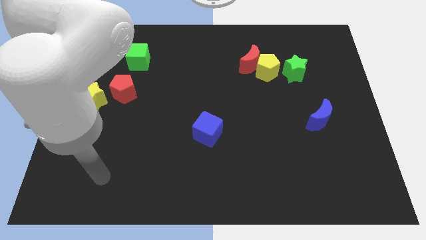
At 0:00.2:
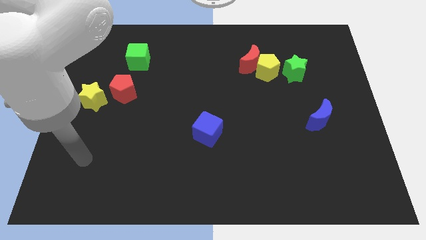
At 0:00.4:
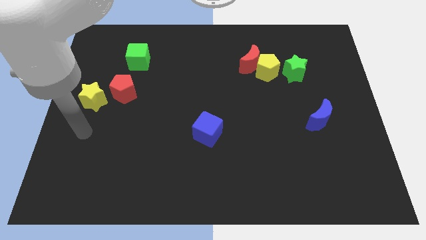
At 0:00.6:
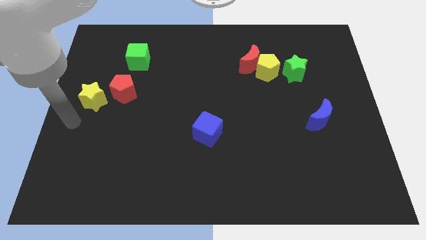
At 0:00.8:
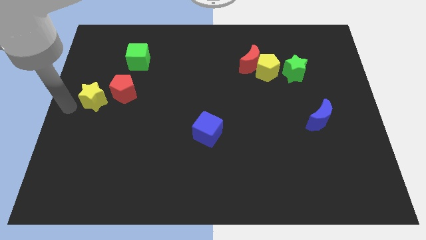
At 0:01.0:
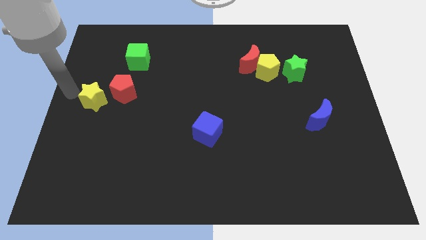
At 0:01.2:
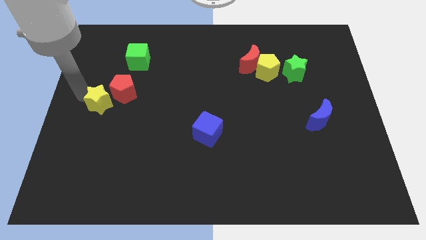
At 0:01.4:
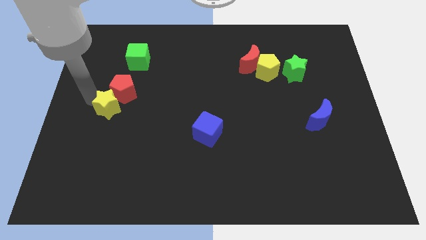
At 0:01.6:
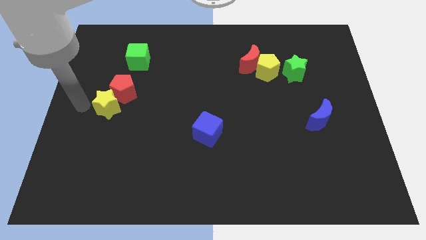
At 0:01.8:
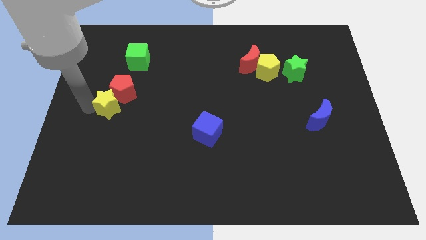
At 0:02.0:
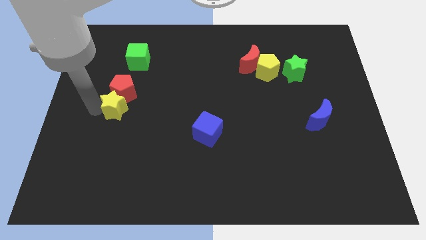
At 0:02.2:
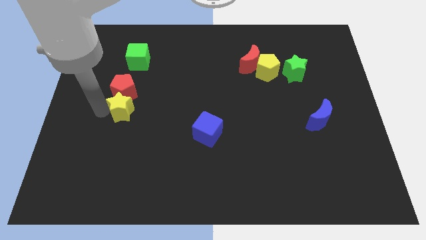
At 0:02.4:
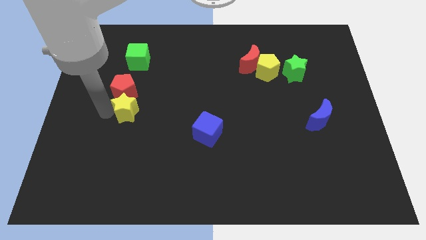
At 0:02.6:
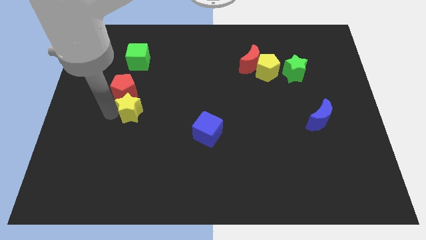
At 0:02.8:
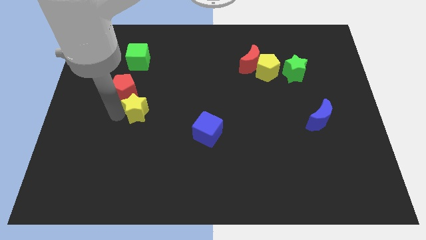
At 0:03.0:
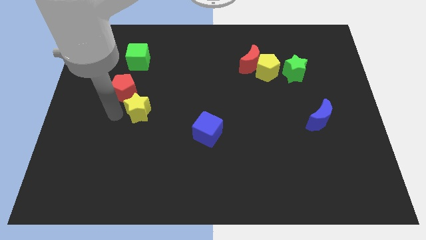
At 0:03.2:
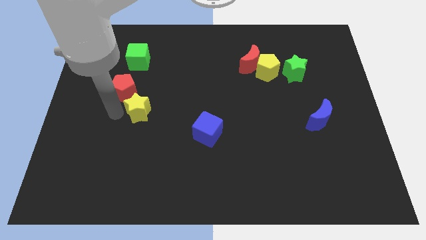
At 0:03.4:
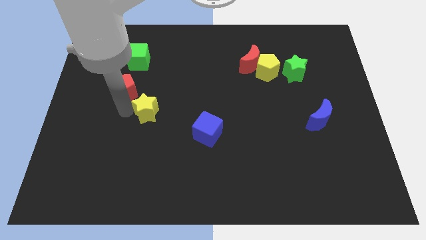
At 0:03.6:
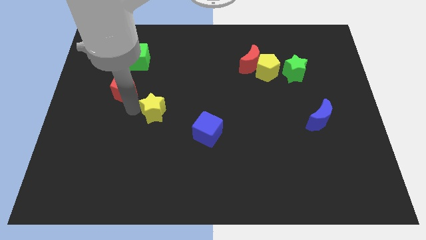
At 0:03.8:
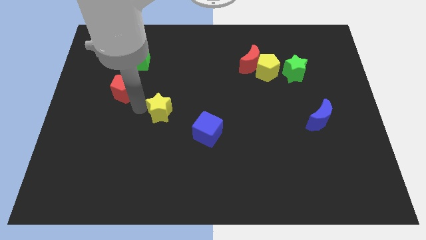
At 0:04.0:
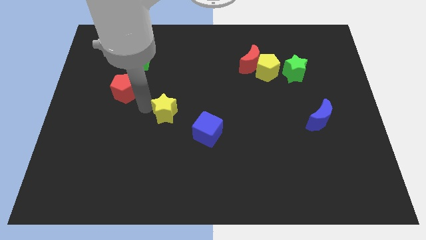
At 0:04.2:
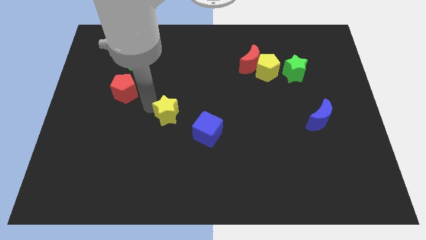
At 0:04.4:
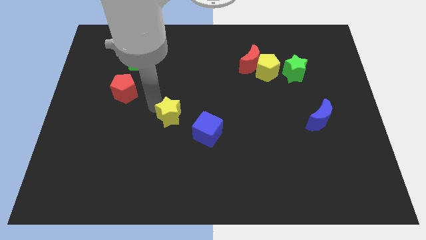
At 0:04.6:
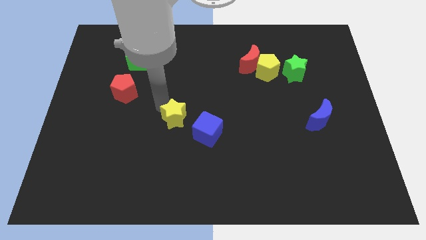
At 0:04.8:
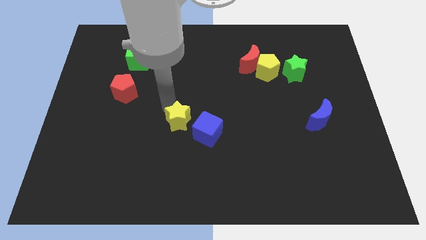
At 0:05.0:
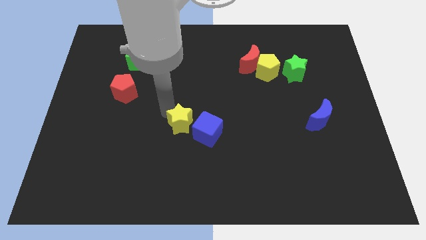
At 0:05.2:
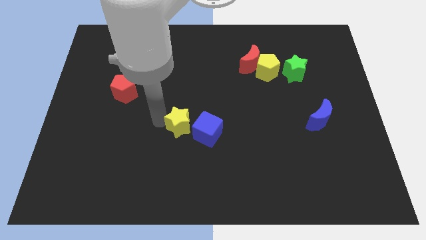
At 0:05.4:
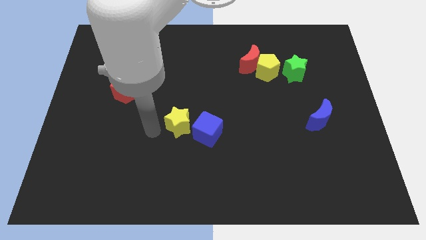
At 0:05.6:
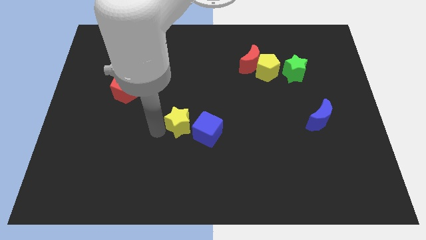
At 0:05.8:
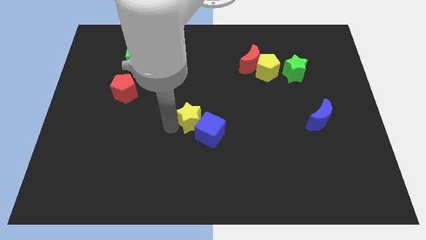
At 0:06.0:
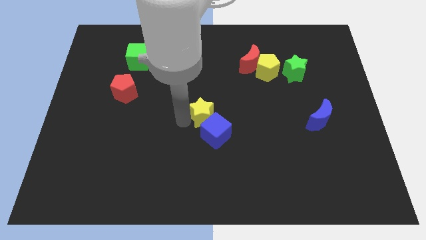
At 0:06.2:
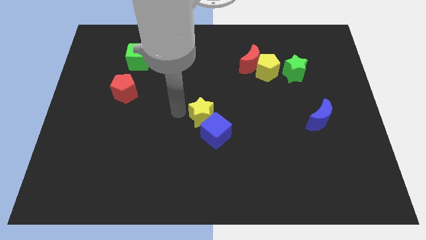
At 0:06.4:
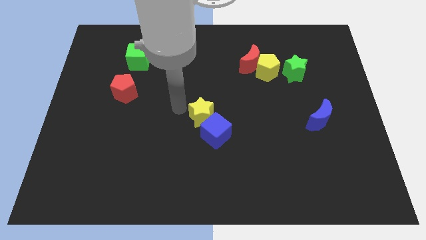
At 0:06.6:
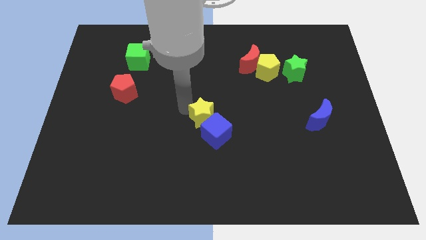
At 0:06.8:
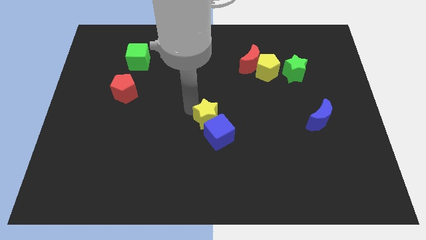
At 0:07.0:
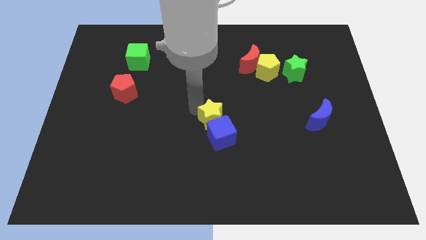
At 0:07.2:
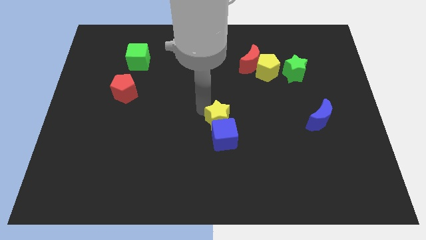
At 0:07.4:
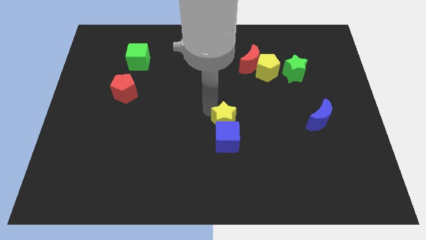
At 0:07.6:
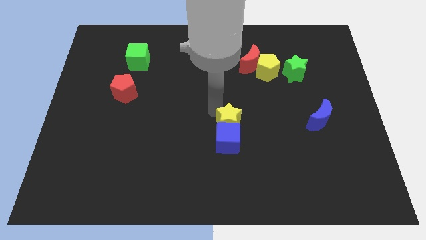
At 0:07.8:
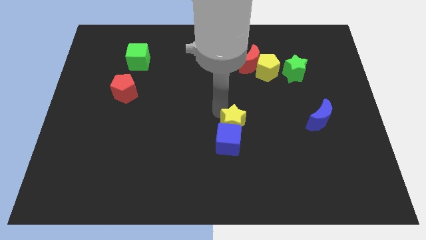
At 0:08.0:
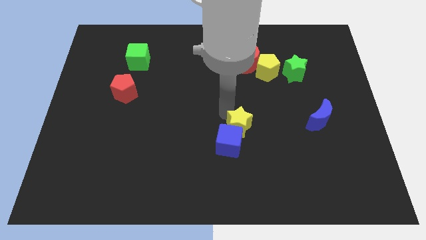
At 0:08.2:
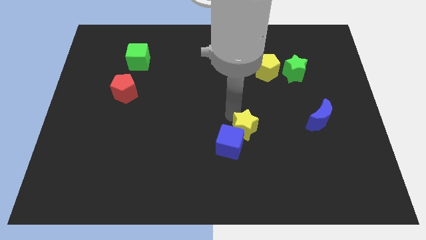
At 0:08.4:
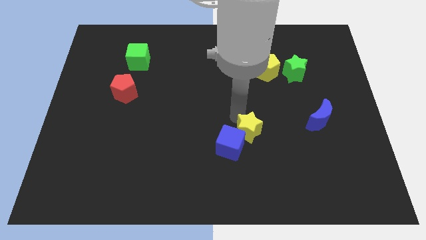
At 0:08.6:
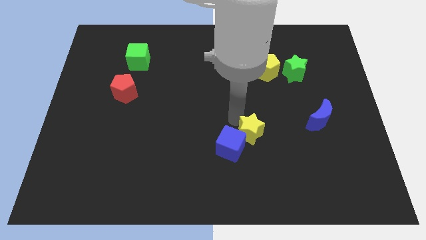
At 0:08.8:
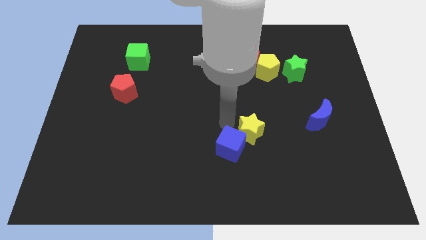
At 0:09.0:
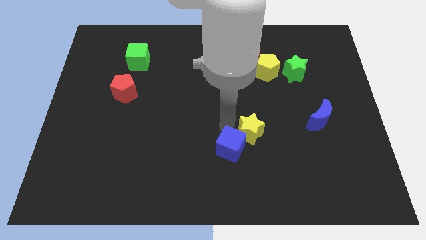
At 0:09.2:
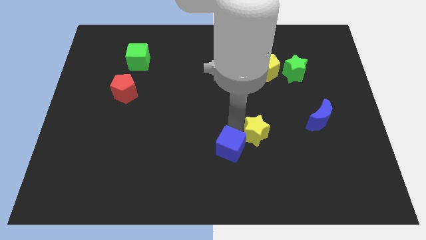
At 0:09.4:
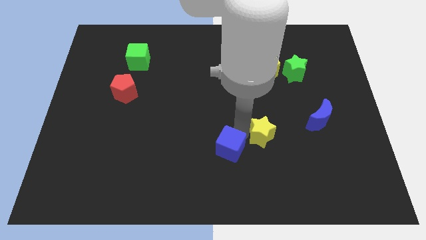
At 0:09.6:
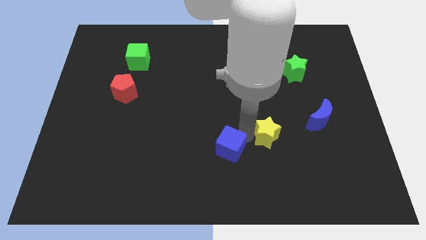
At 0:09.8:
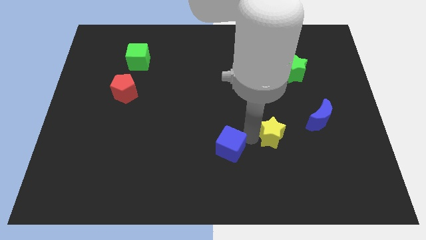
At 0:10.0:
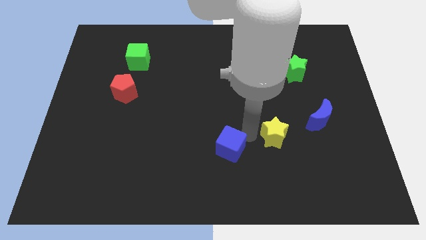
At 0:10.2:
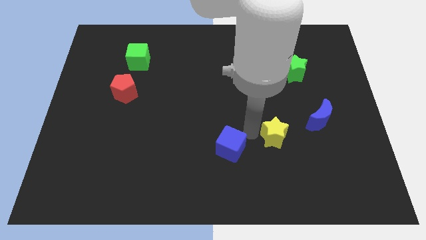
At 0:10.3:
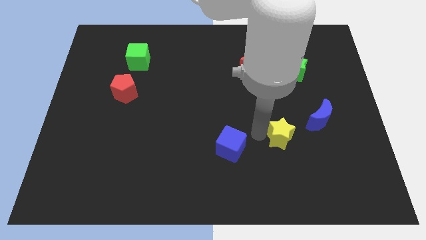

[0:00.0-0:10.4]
move the yellow star to the bottom left side of the blue moon

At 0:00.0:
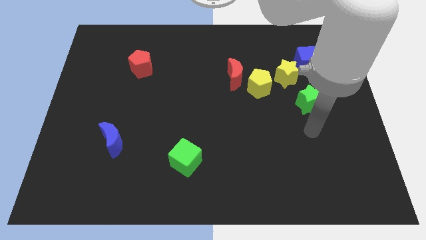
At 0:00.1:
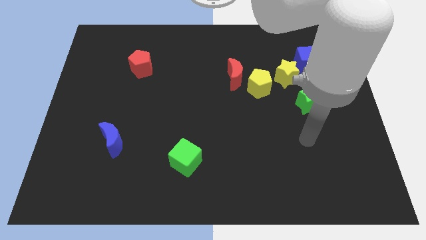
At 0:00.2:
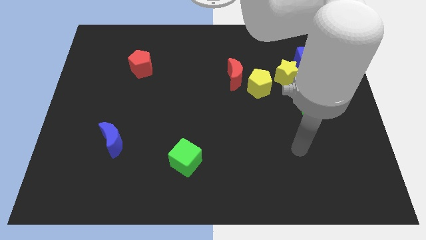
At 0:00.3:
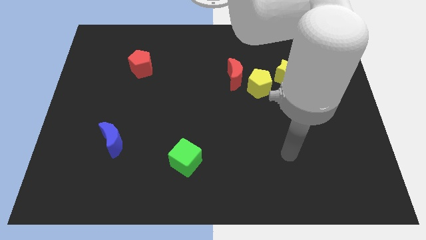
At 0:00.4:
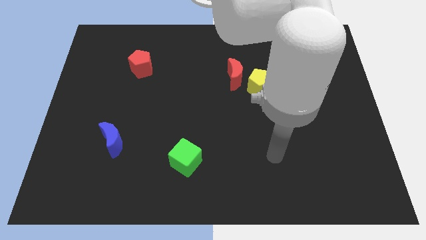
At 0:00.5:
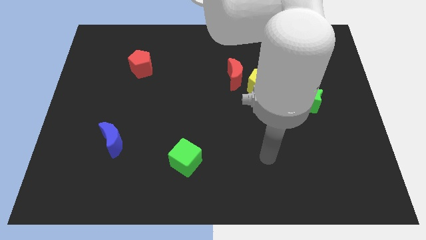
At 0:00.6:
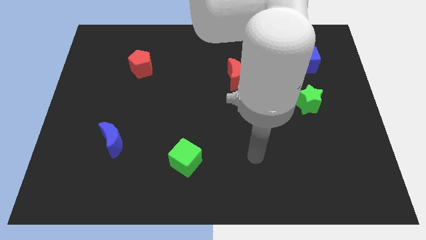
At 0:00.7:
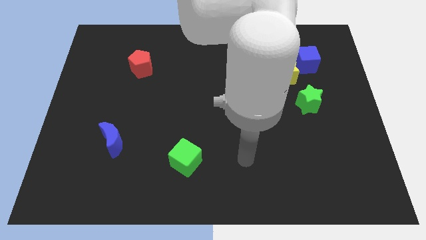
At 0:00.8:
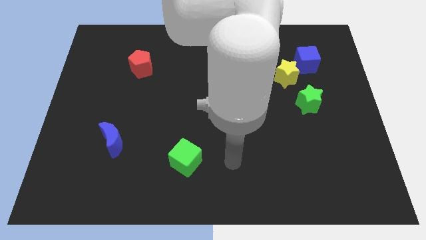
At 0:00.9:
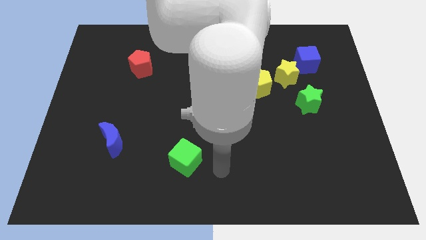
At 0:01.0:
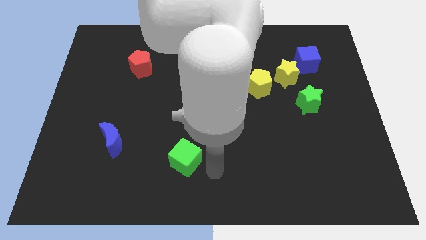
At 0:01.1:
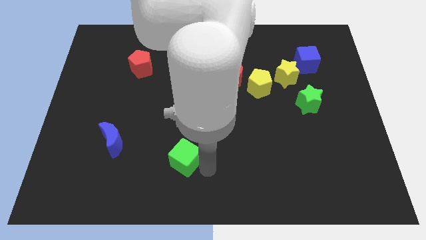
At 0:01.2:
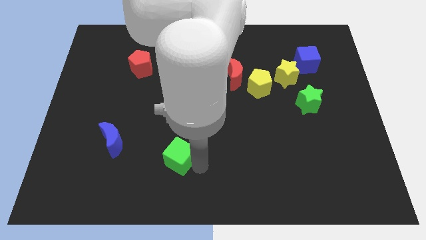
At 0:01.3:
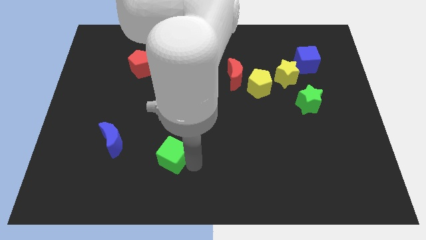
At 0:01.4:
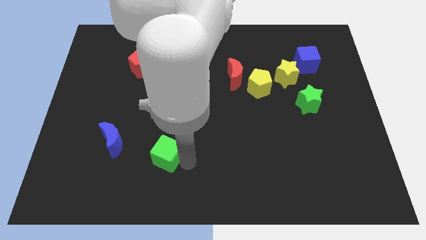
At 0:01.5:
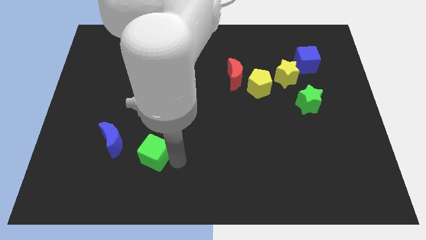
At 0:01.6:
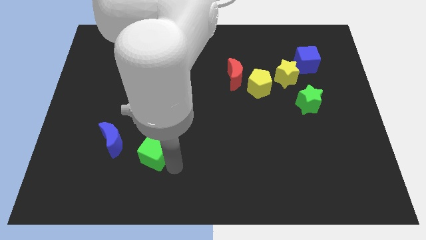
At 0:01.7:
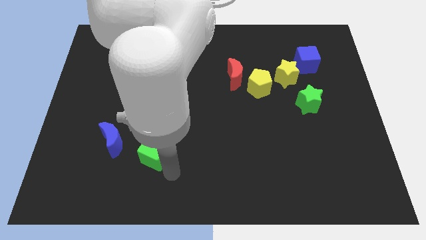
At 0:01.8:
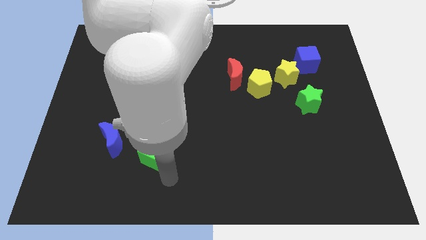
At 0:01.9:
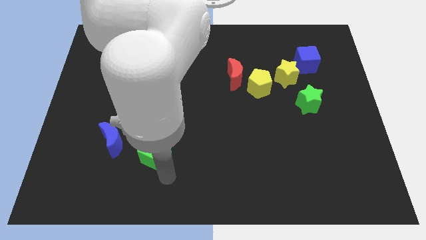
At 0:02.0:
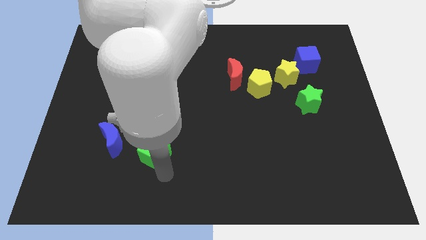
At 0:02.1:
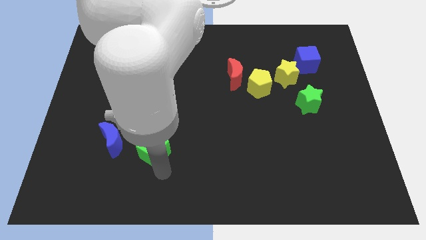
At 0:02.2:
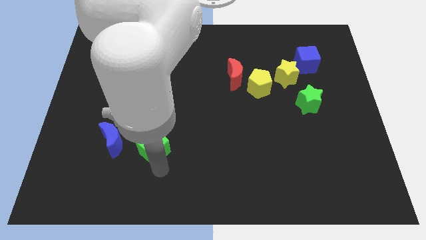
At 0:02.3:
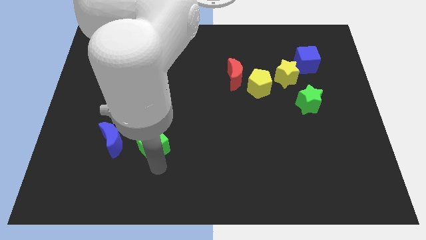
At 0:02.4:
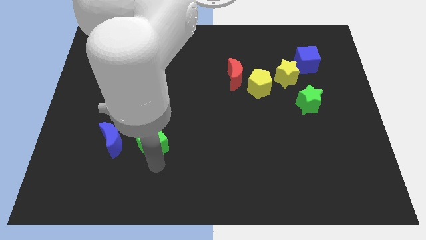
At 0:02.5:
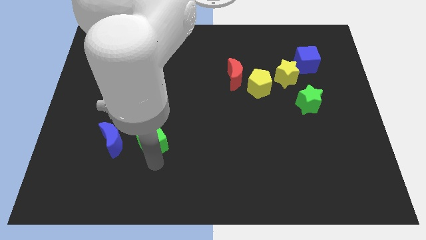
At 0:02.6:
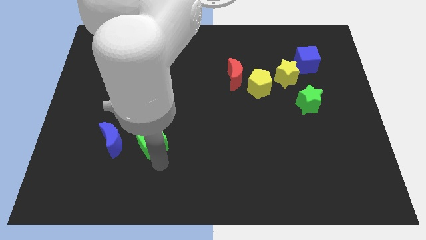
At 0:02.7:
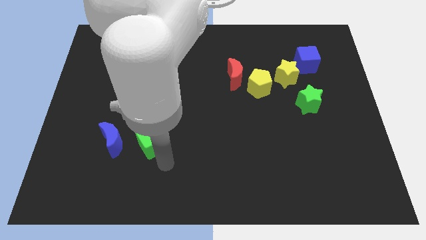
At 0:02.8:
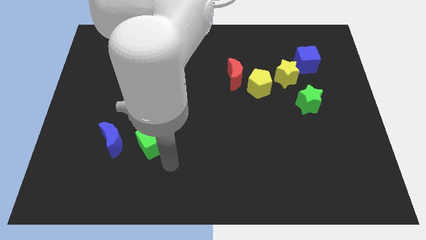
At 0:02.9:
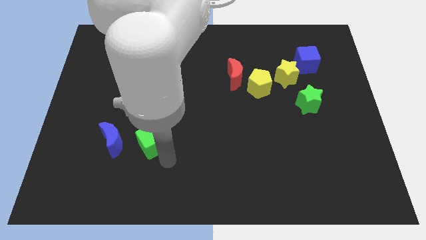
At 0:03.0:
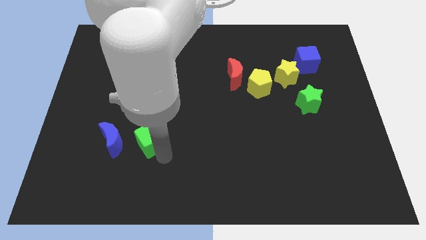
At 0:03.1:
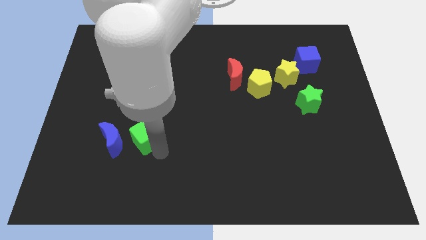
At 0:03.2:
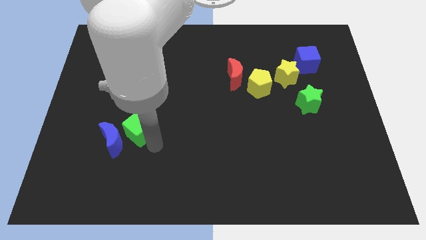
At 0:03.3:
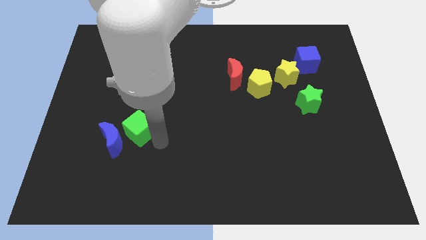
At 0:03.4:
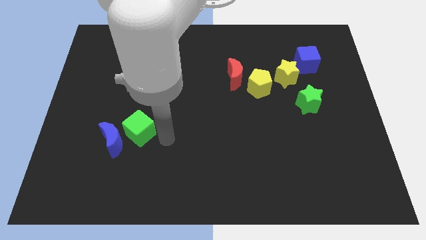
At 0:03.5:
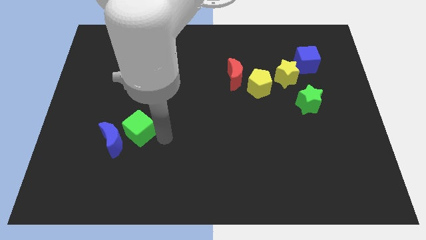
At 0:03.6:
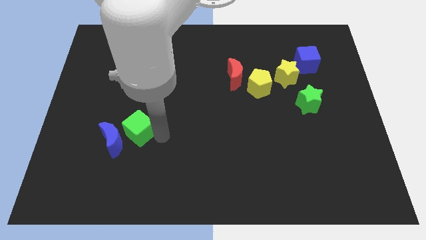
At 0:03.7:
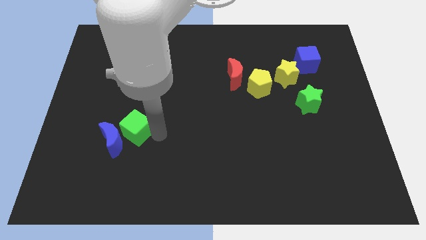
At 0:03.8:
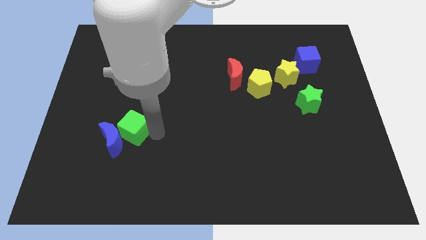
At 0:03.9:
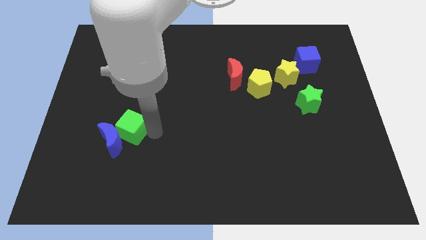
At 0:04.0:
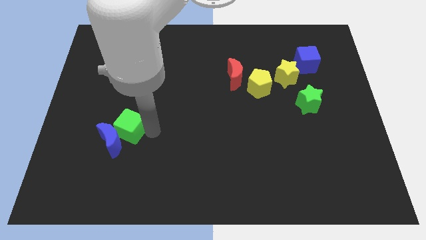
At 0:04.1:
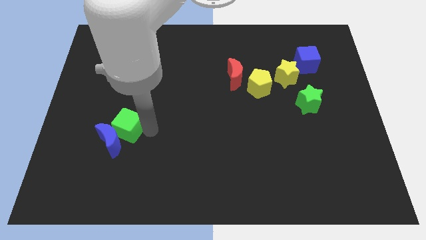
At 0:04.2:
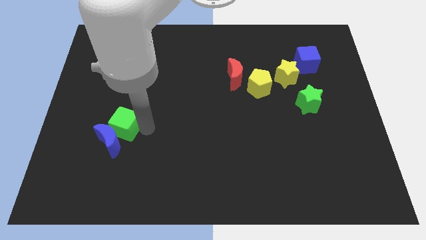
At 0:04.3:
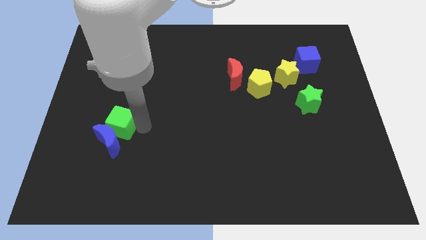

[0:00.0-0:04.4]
move the green cube to the top left side of the blue moon
